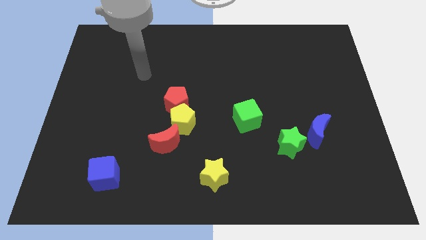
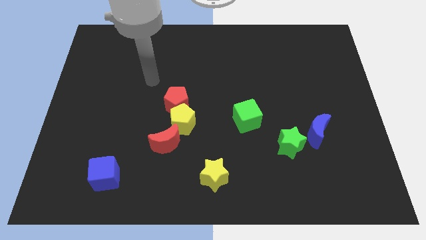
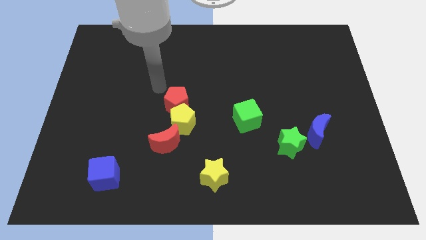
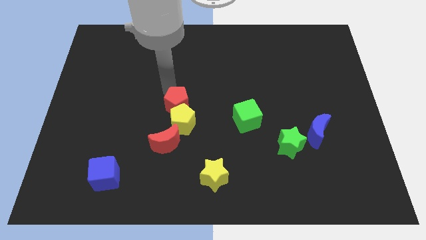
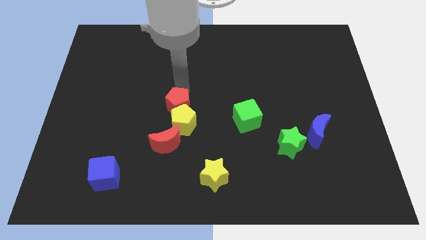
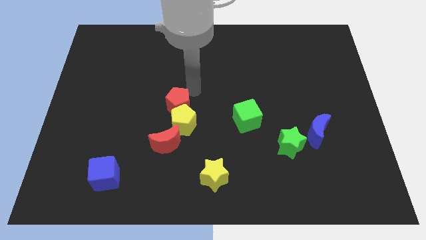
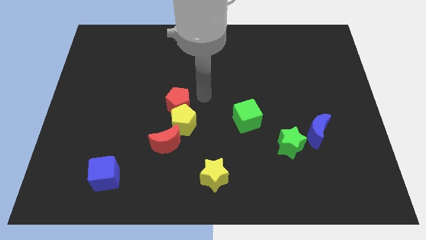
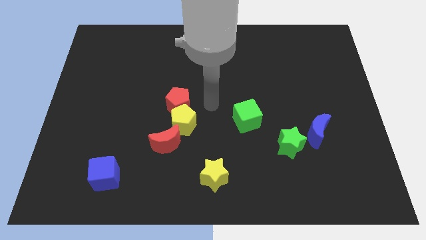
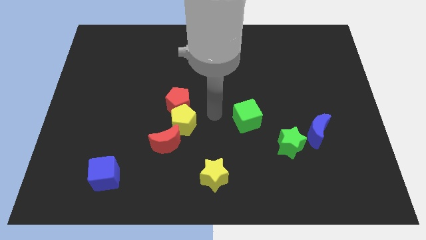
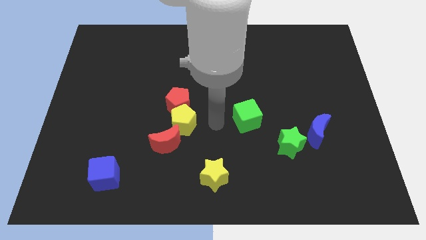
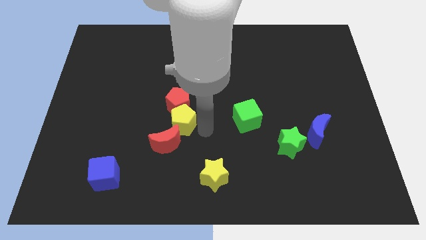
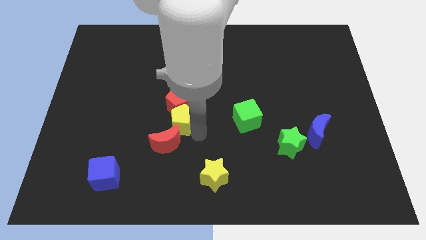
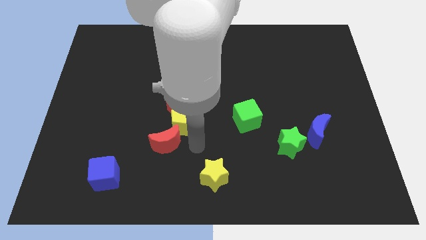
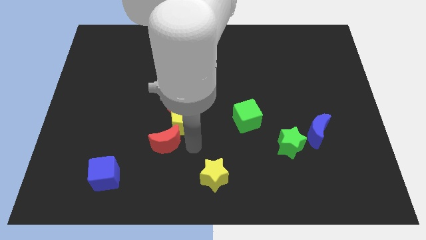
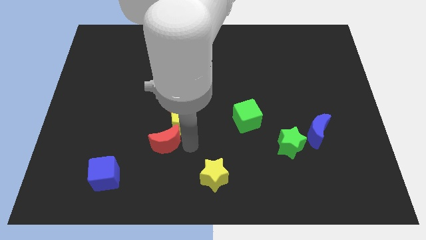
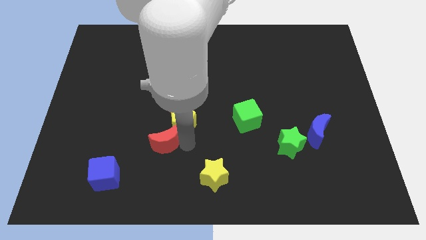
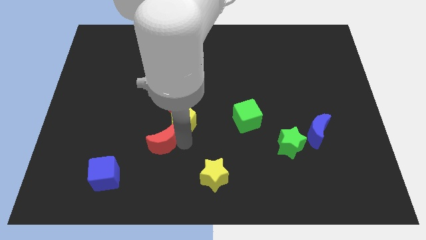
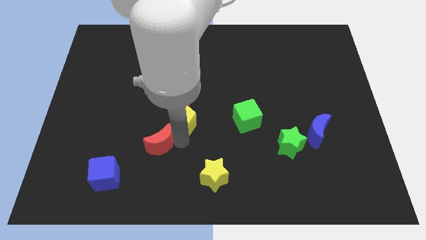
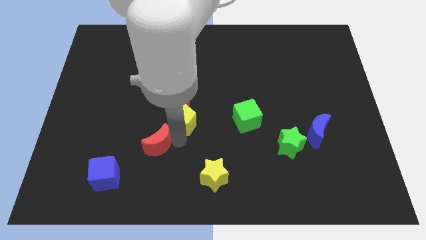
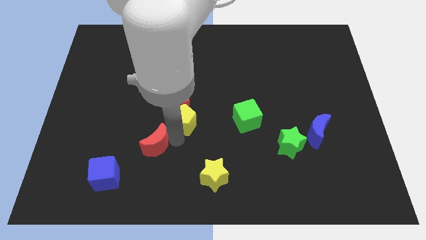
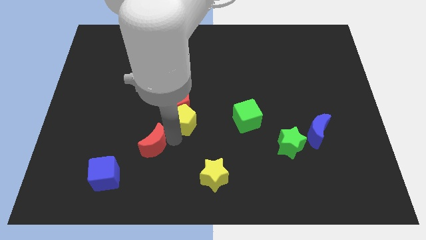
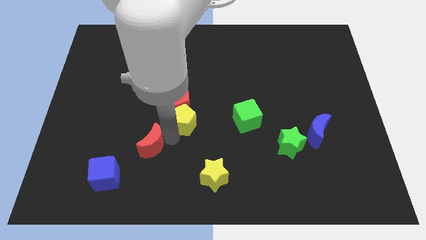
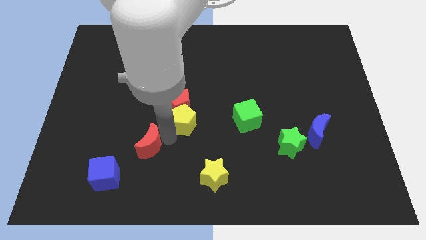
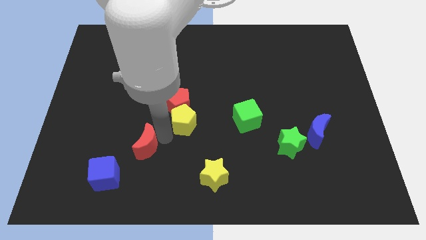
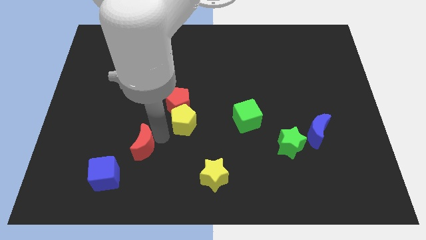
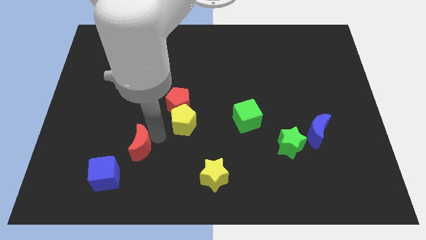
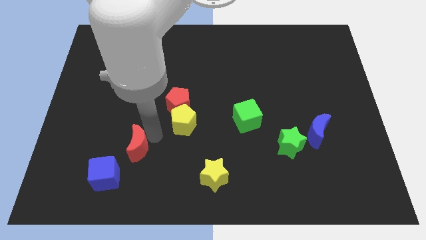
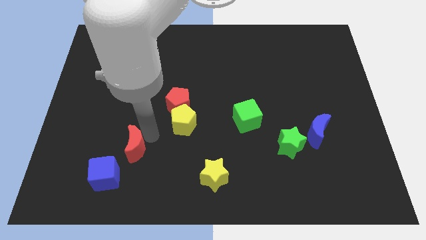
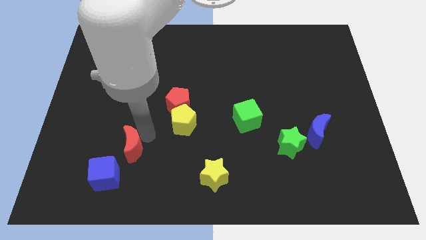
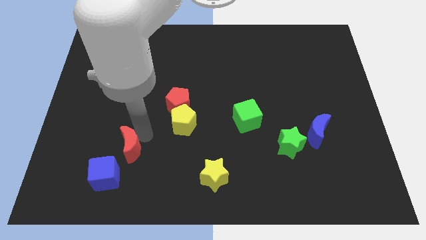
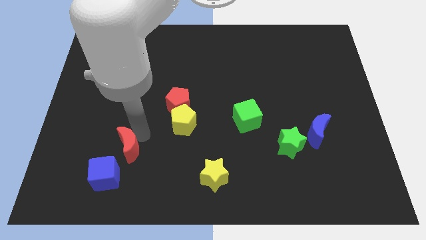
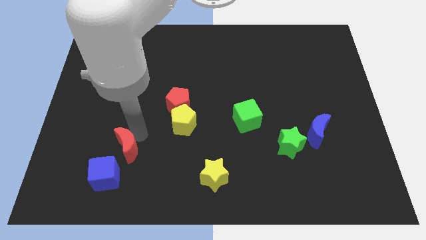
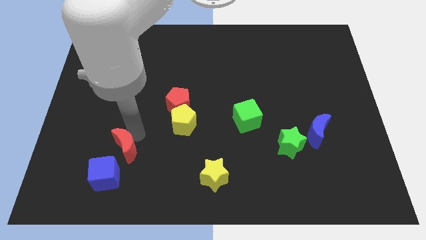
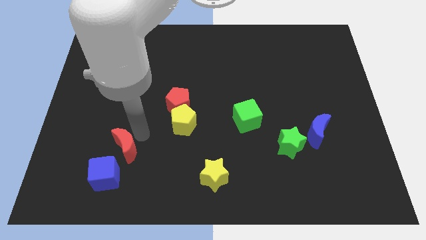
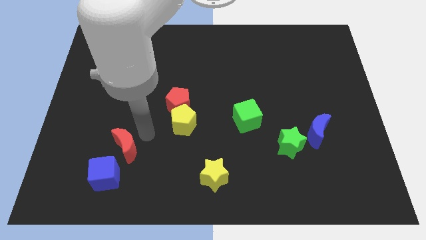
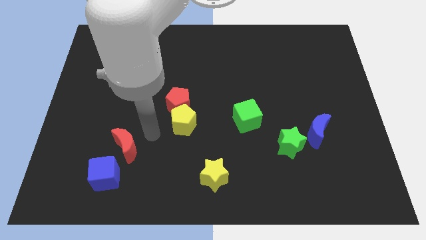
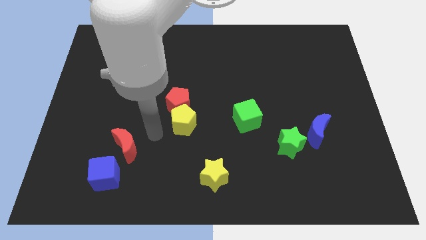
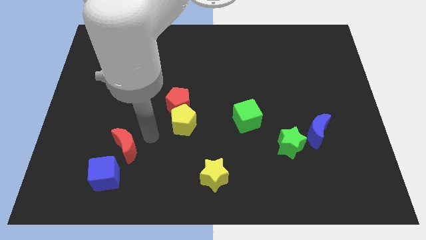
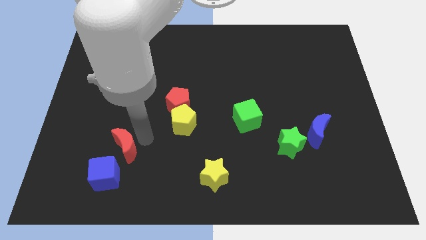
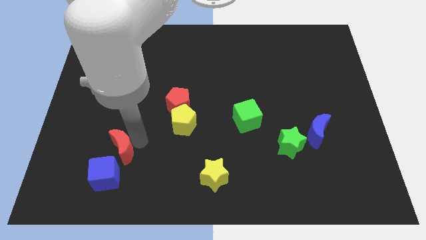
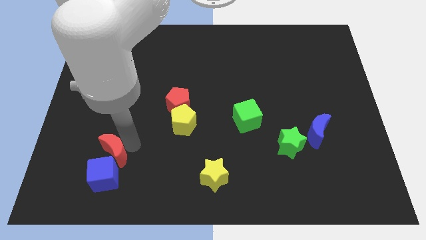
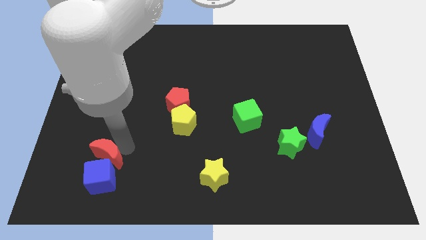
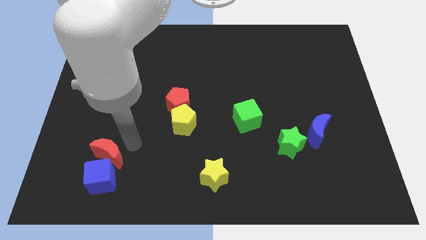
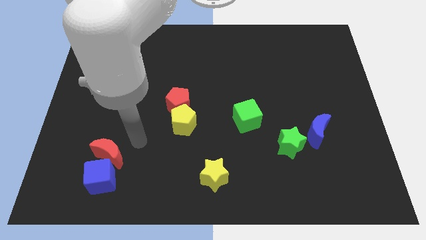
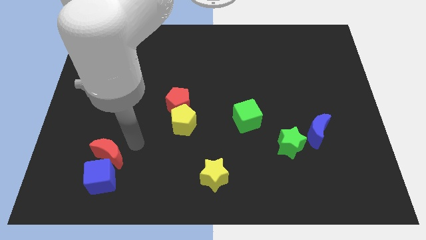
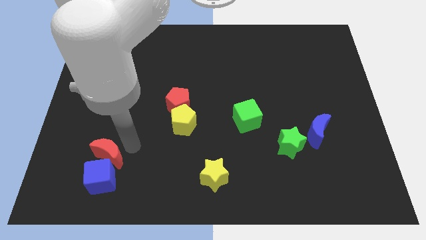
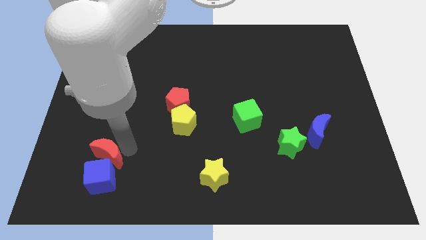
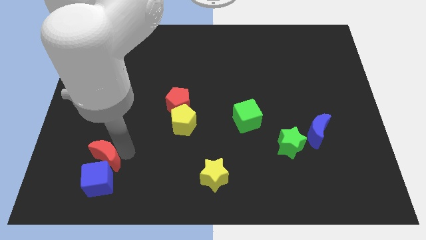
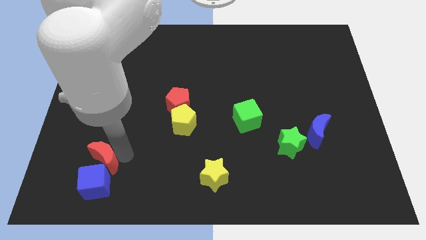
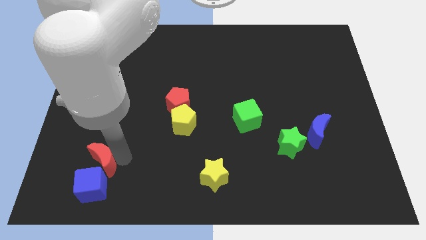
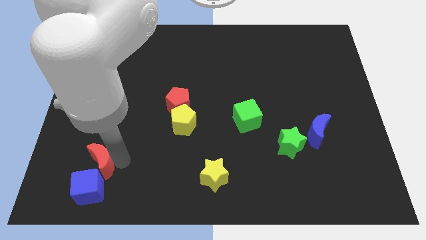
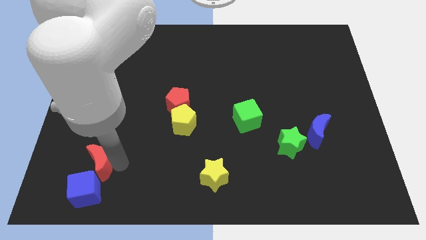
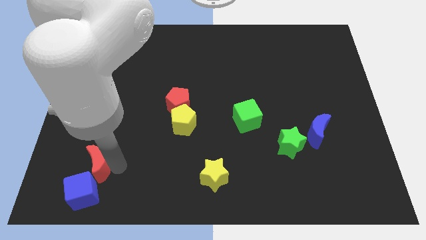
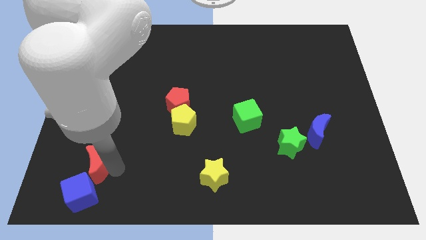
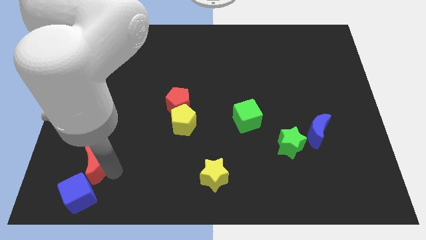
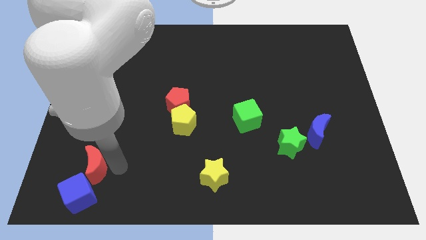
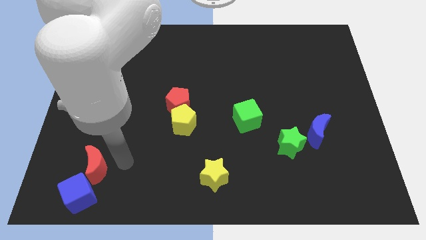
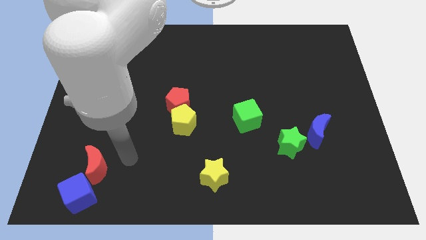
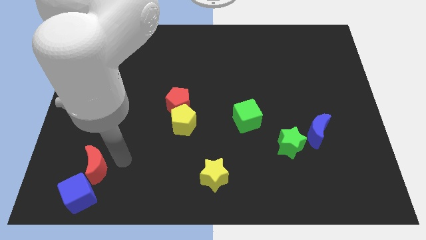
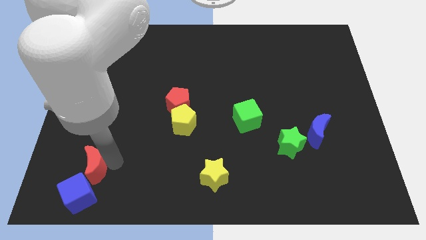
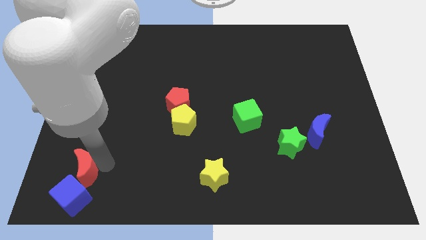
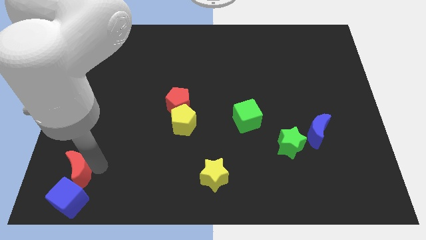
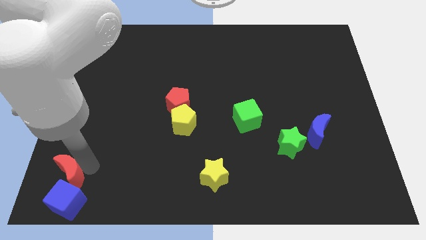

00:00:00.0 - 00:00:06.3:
move the red moon to the lower left corner

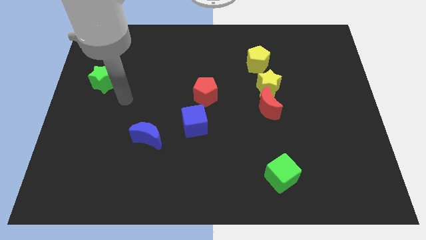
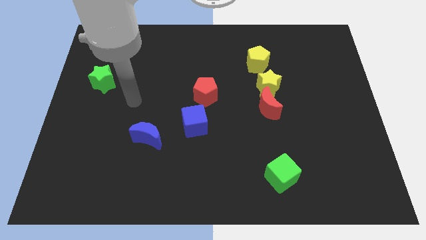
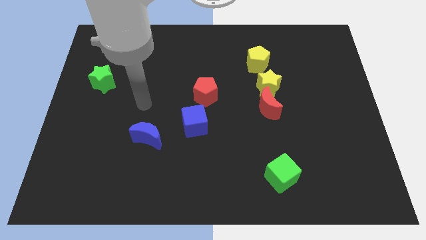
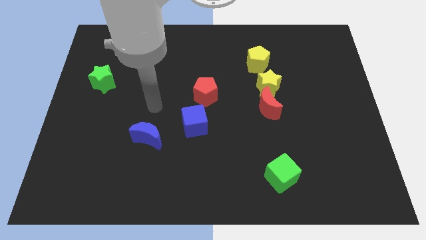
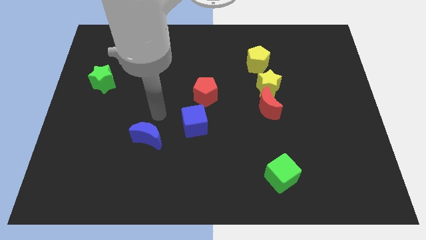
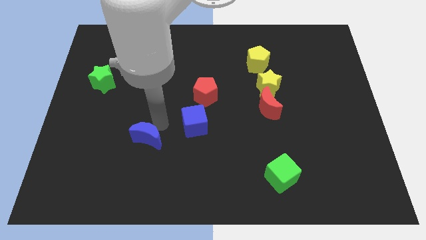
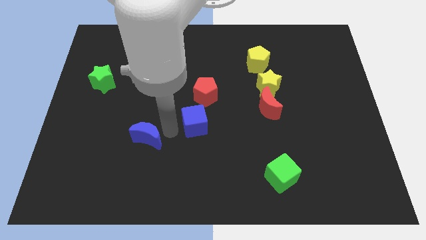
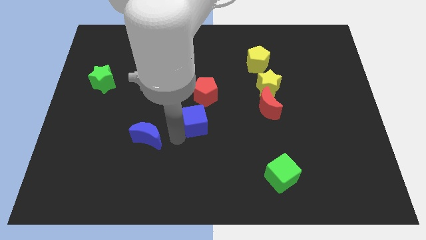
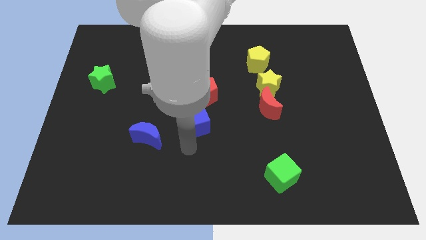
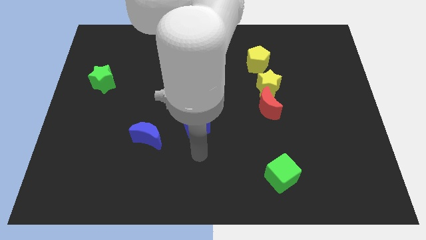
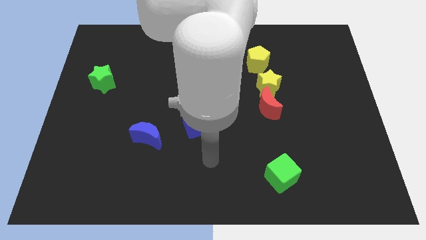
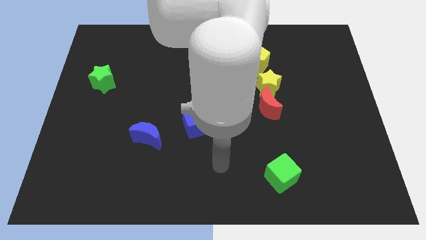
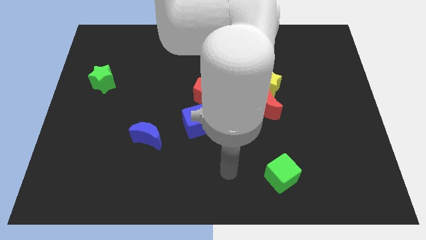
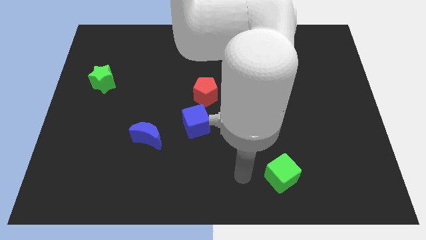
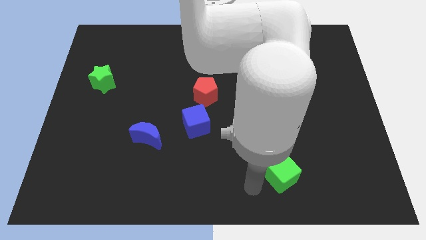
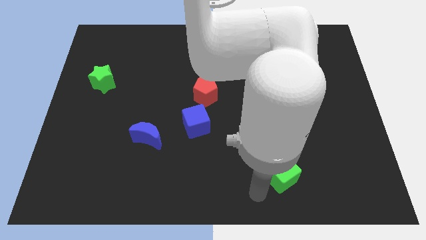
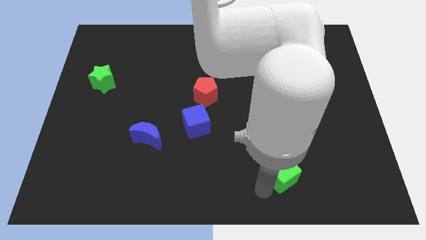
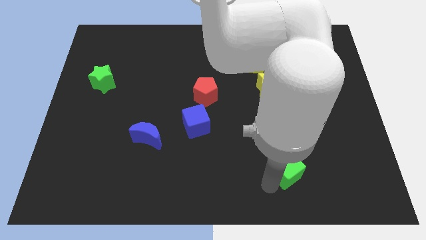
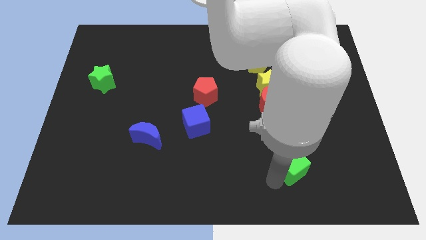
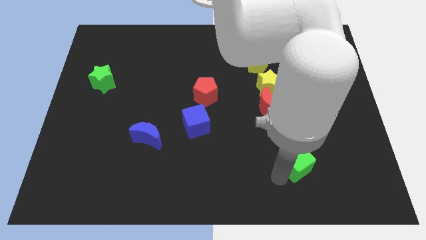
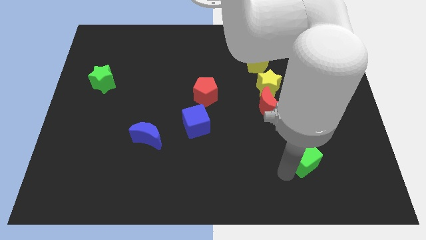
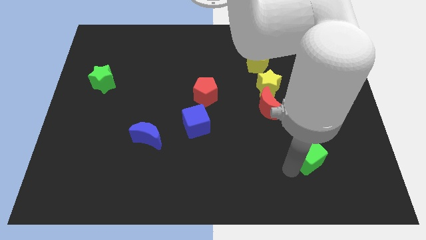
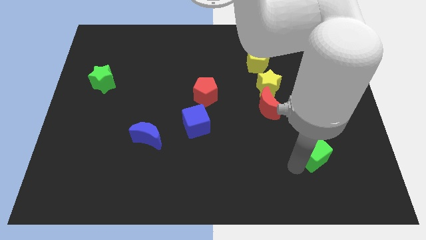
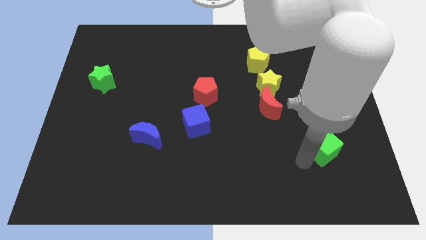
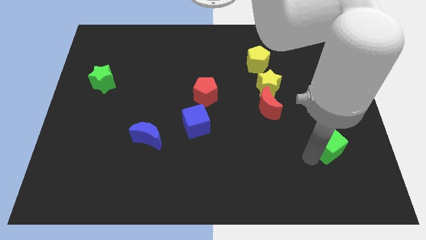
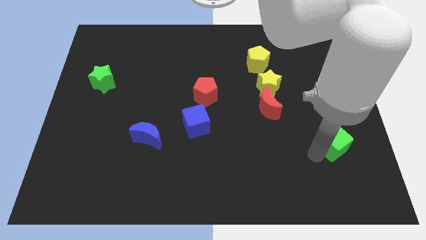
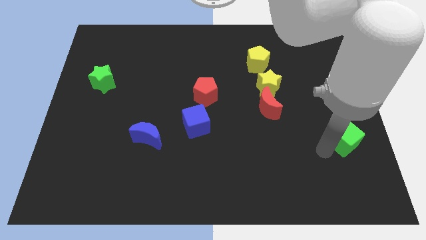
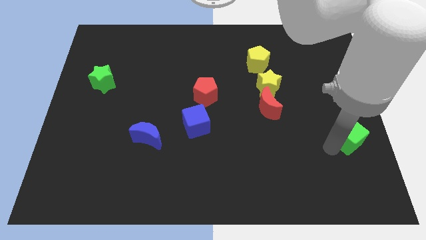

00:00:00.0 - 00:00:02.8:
push the green cube to the center right
